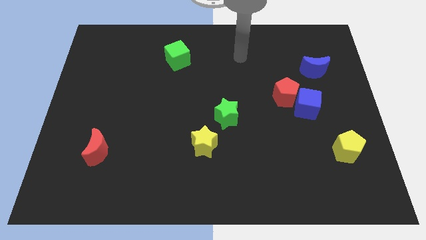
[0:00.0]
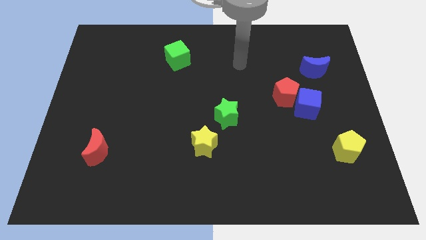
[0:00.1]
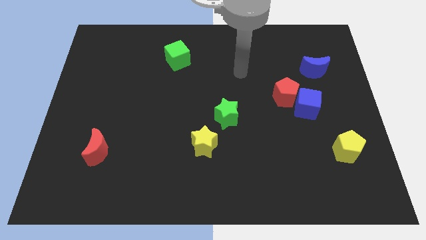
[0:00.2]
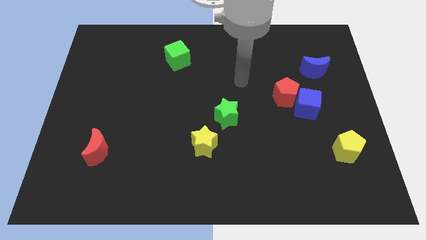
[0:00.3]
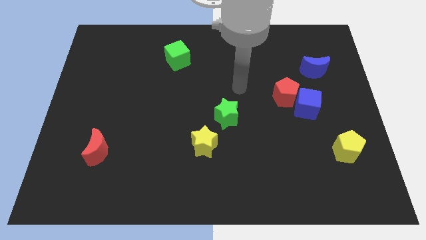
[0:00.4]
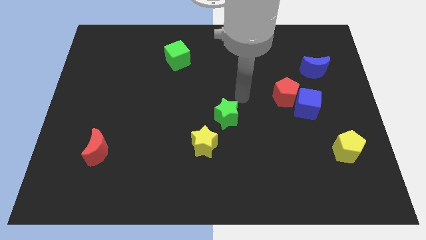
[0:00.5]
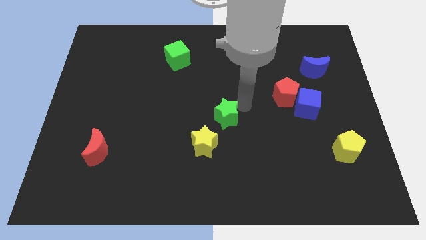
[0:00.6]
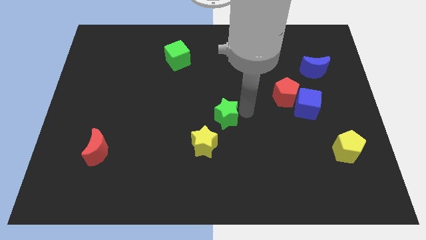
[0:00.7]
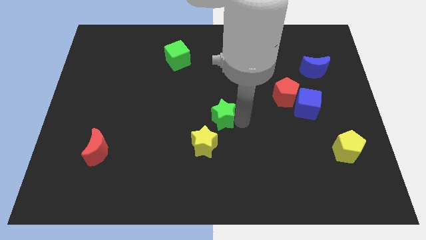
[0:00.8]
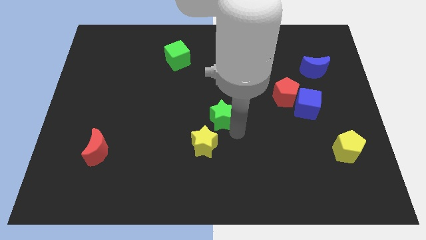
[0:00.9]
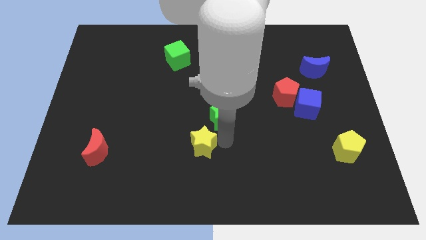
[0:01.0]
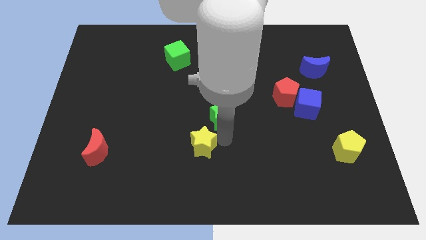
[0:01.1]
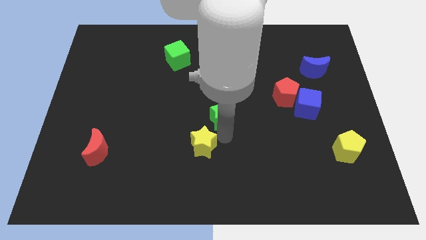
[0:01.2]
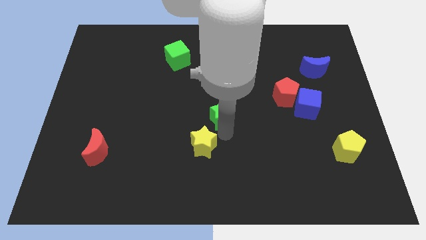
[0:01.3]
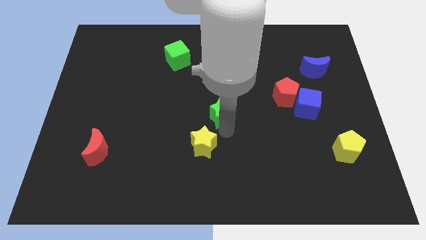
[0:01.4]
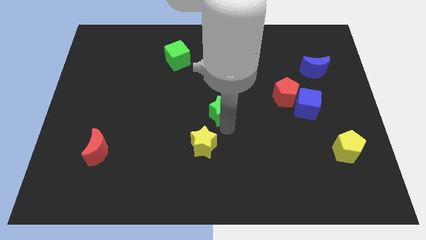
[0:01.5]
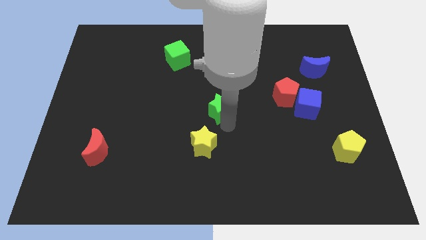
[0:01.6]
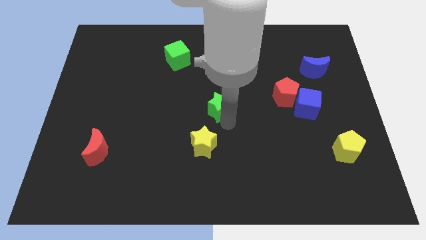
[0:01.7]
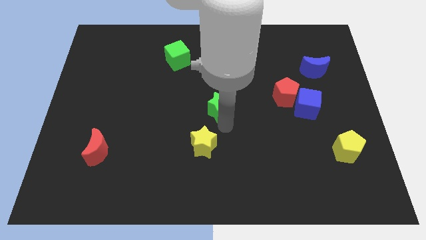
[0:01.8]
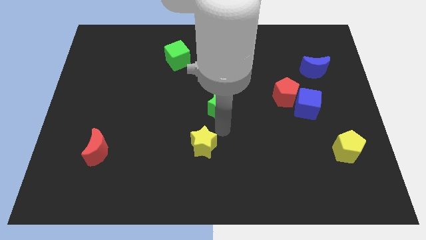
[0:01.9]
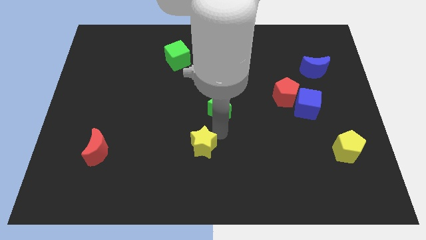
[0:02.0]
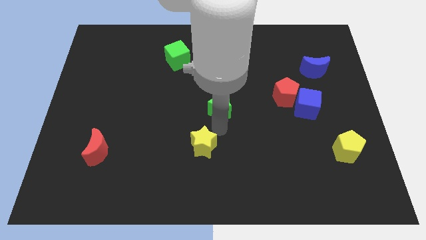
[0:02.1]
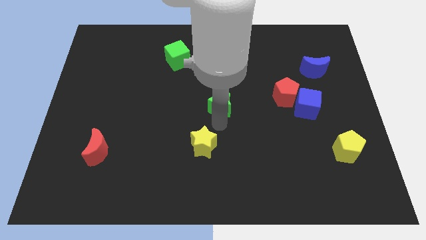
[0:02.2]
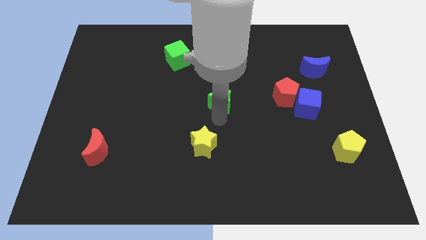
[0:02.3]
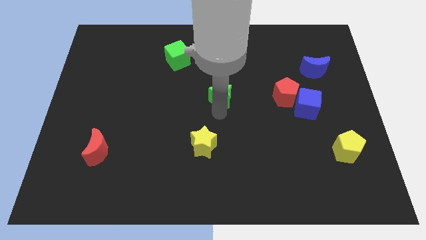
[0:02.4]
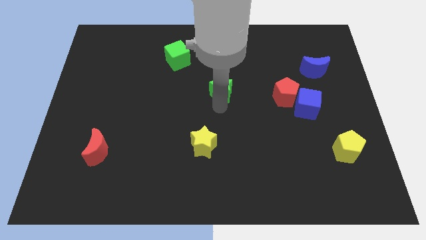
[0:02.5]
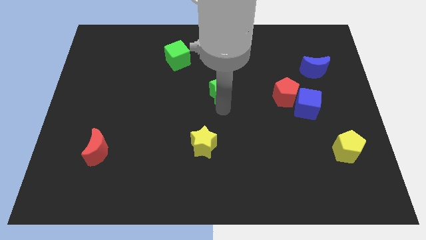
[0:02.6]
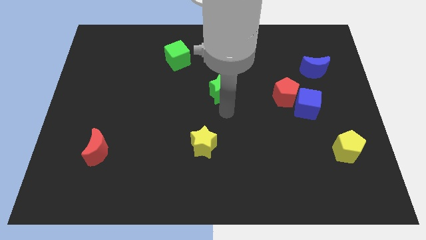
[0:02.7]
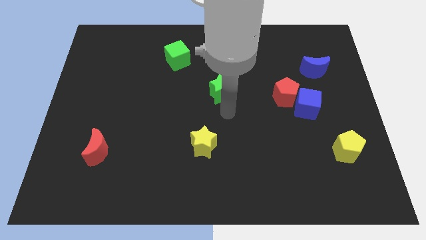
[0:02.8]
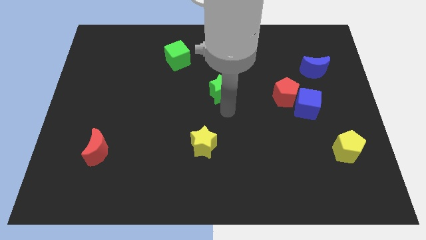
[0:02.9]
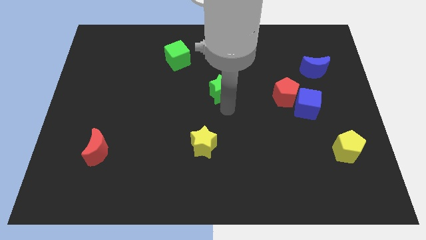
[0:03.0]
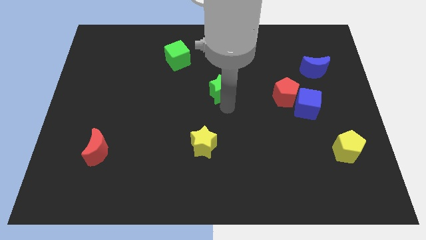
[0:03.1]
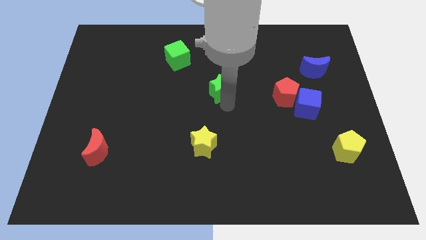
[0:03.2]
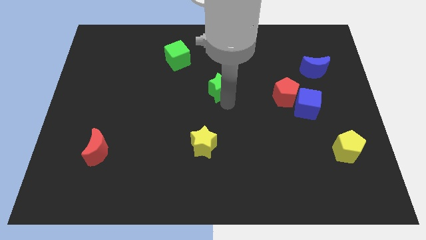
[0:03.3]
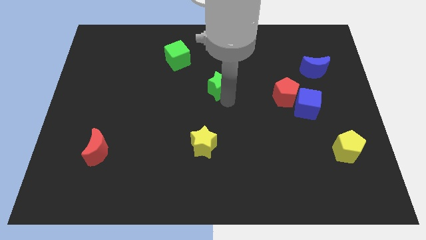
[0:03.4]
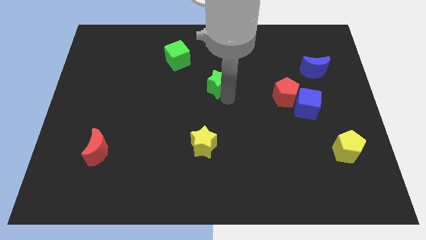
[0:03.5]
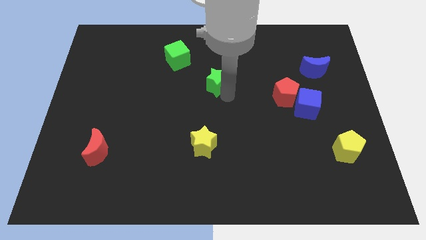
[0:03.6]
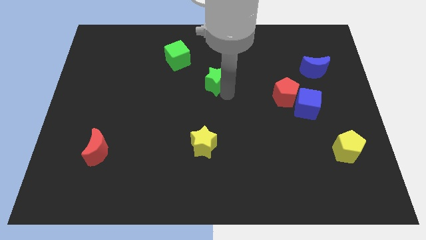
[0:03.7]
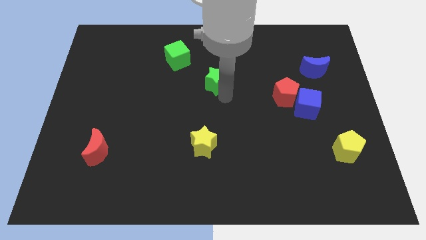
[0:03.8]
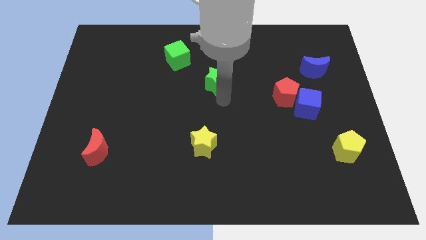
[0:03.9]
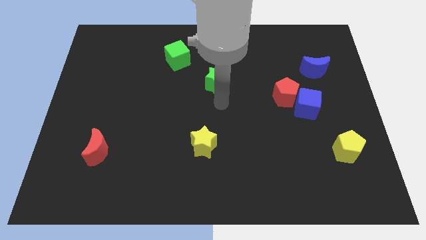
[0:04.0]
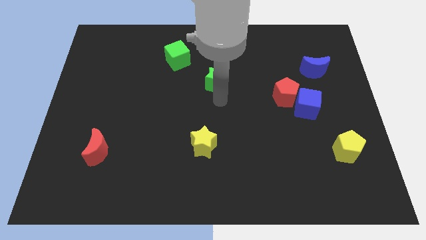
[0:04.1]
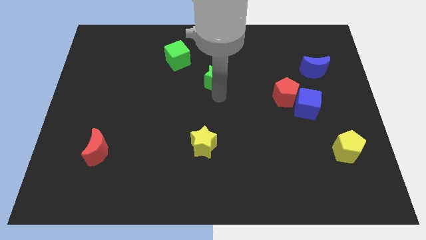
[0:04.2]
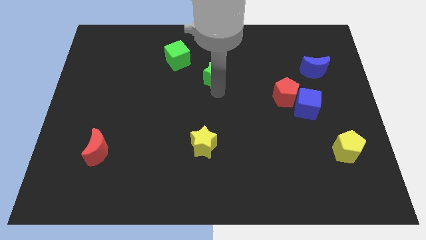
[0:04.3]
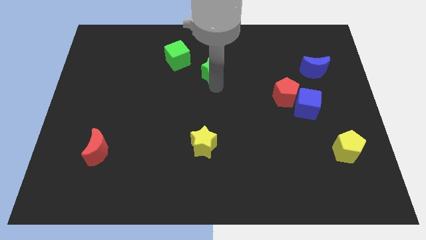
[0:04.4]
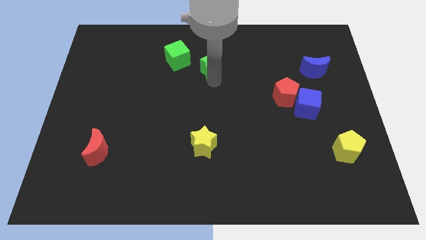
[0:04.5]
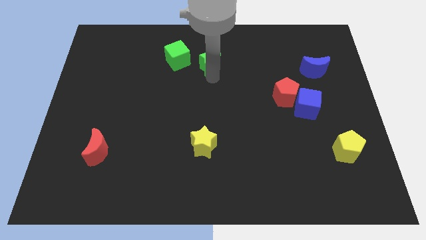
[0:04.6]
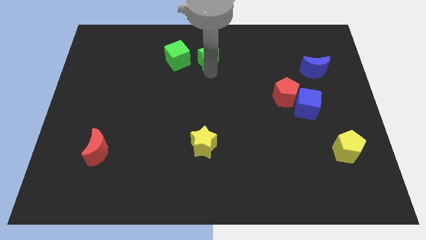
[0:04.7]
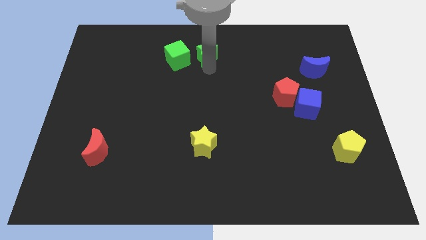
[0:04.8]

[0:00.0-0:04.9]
move the green star to the top
